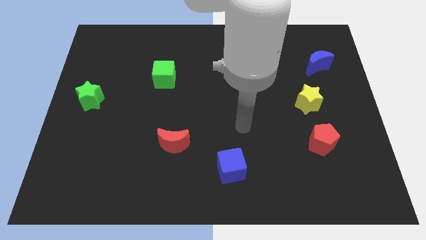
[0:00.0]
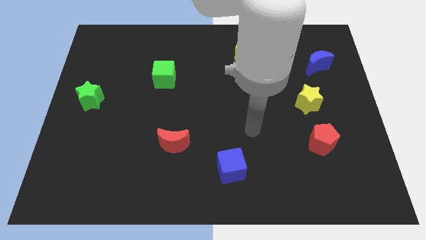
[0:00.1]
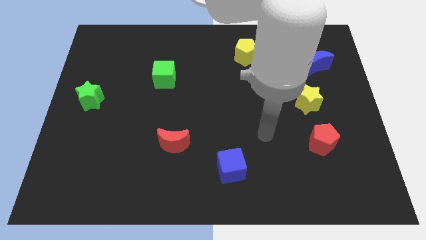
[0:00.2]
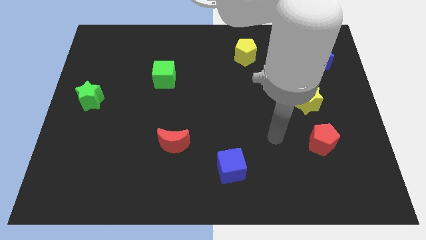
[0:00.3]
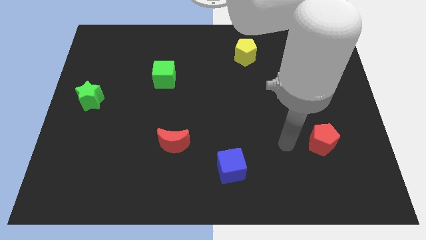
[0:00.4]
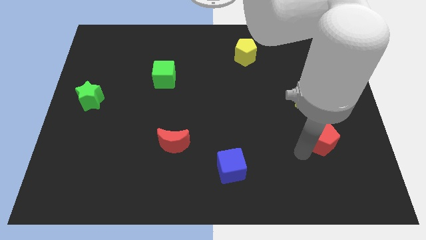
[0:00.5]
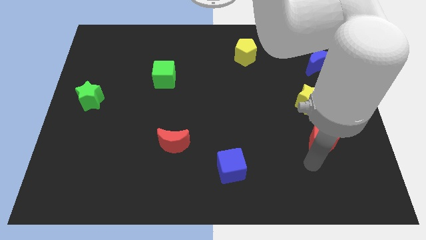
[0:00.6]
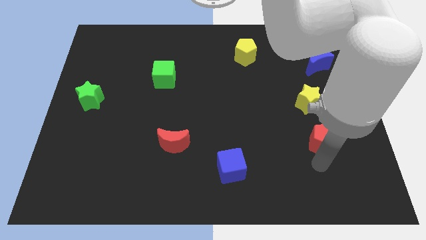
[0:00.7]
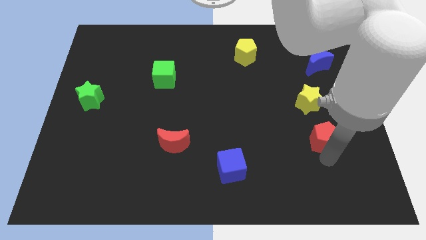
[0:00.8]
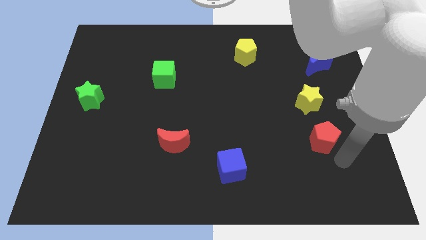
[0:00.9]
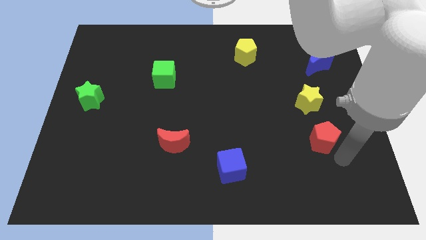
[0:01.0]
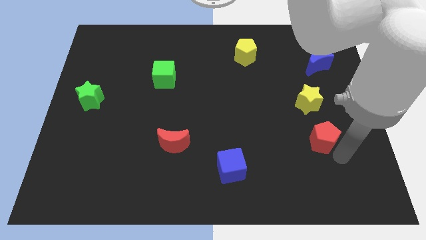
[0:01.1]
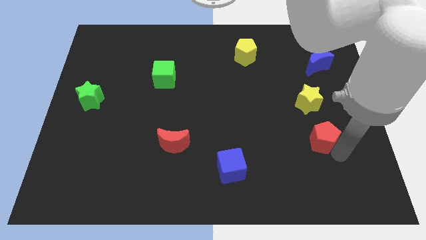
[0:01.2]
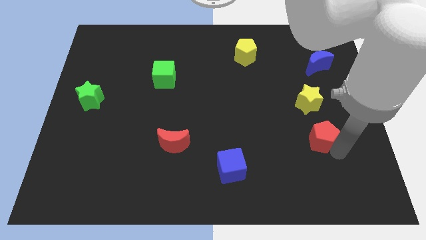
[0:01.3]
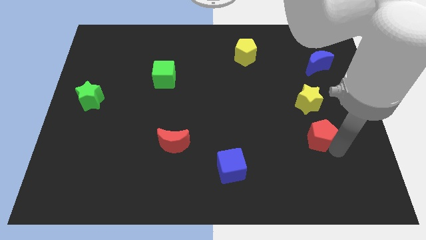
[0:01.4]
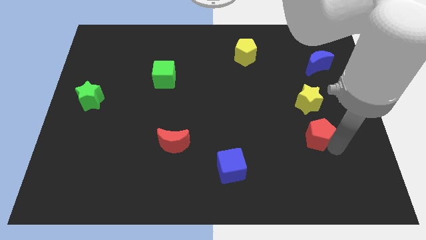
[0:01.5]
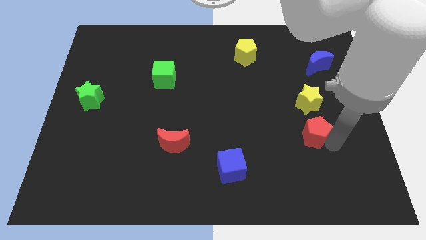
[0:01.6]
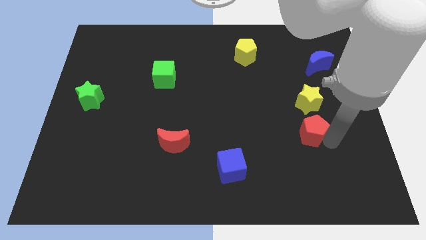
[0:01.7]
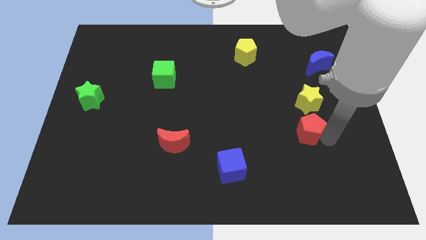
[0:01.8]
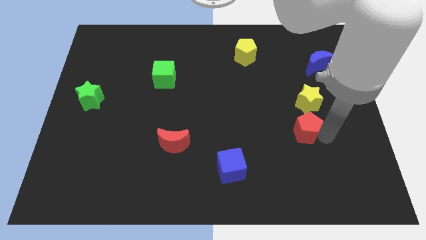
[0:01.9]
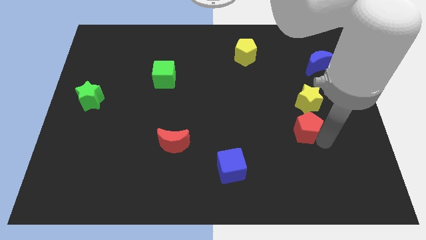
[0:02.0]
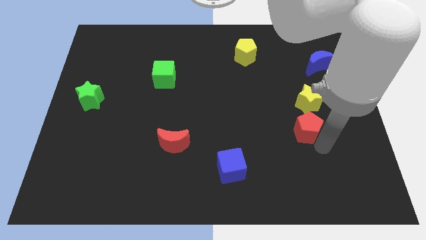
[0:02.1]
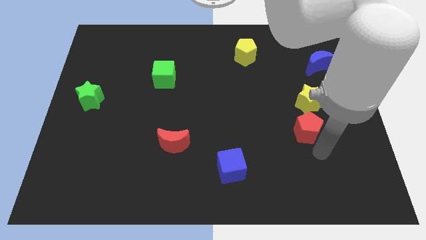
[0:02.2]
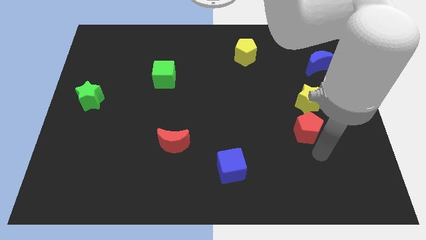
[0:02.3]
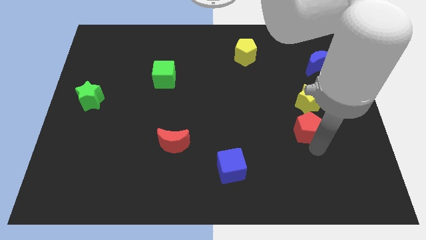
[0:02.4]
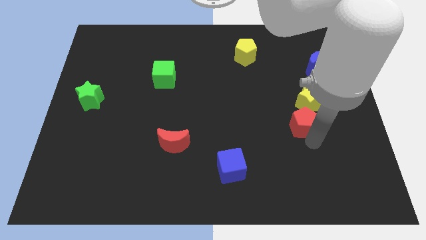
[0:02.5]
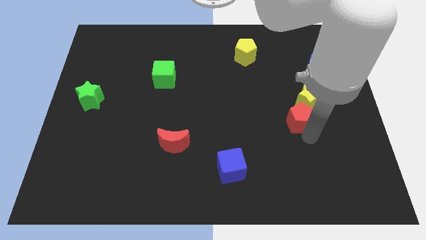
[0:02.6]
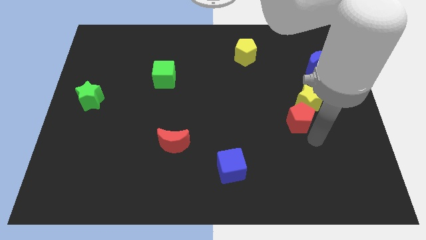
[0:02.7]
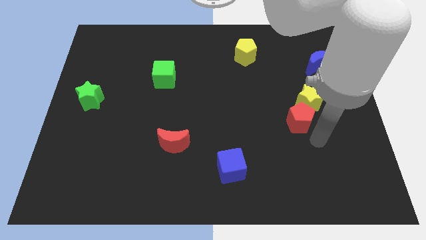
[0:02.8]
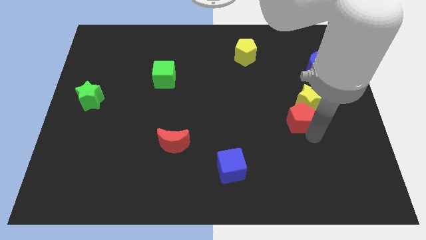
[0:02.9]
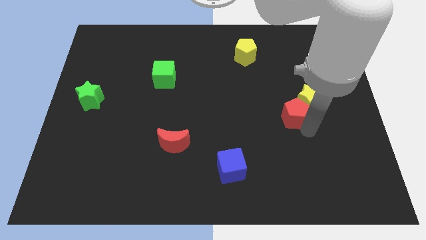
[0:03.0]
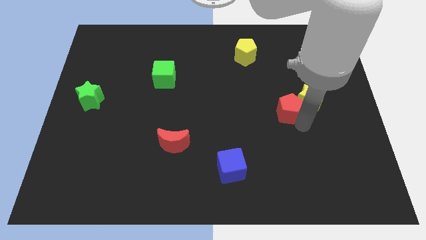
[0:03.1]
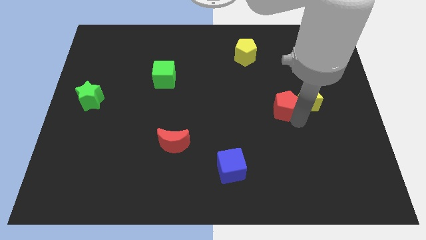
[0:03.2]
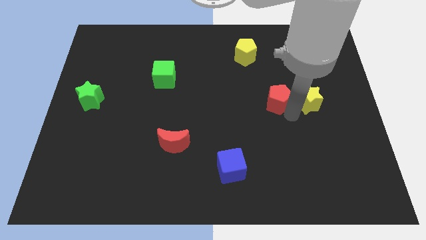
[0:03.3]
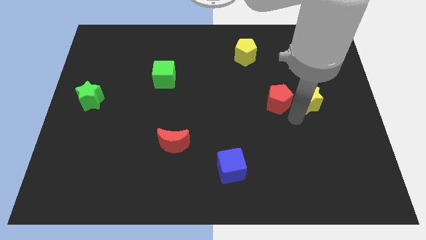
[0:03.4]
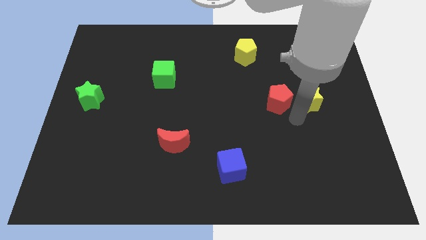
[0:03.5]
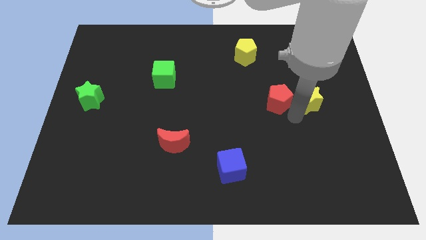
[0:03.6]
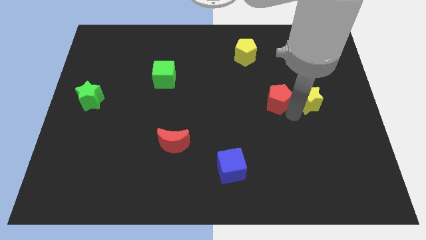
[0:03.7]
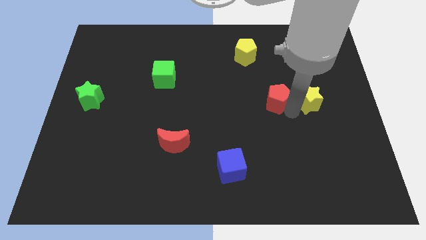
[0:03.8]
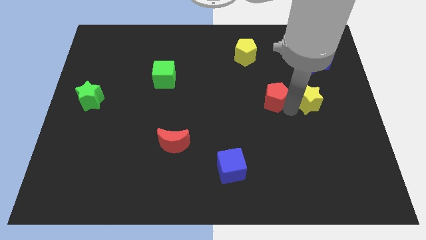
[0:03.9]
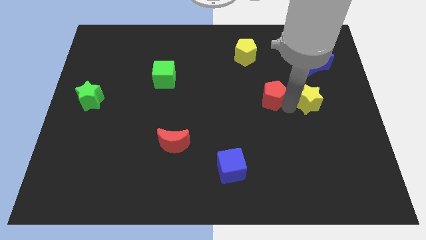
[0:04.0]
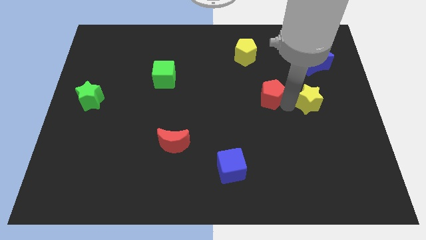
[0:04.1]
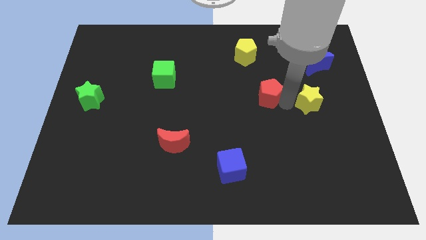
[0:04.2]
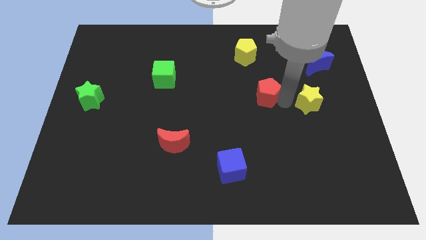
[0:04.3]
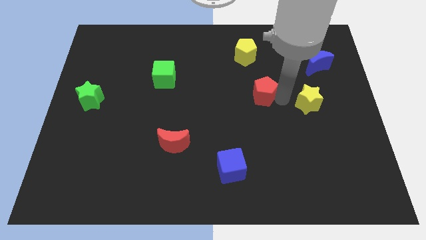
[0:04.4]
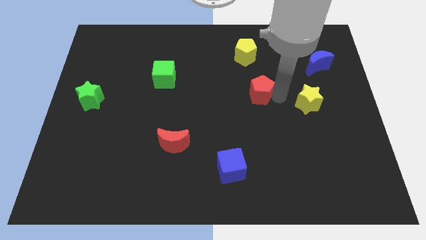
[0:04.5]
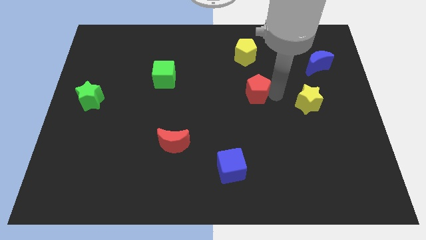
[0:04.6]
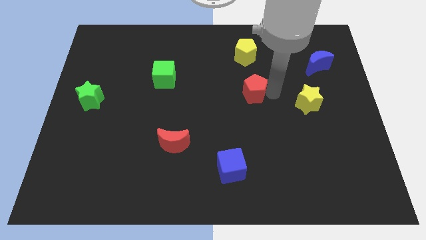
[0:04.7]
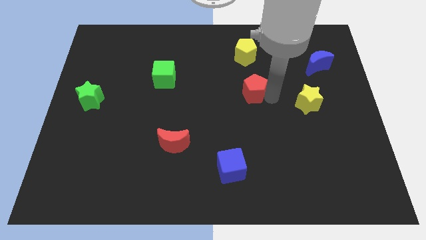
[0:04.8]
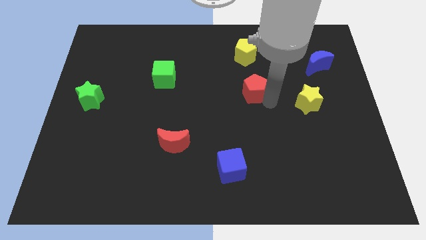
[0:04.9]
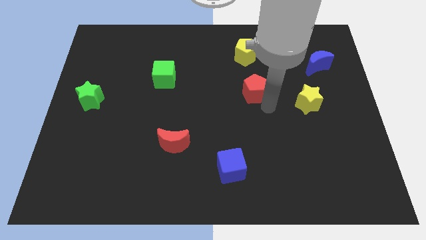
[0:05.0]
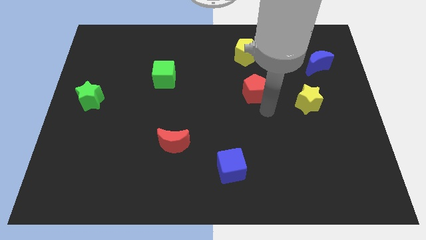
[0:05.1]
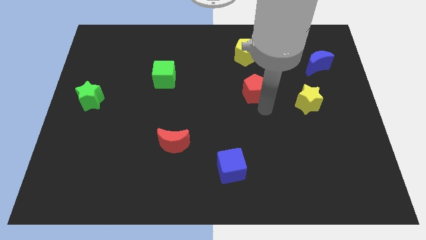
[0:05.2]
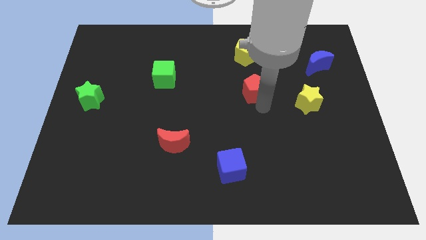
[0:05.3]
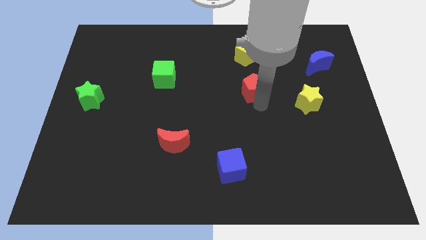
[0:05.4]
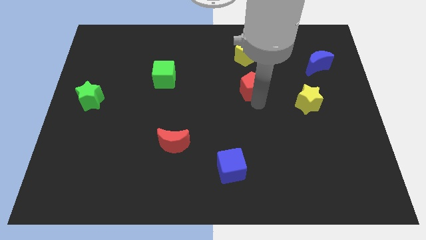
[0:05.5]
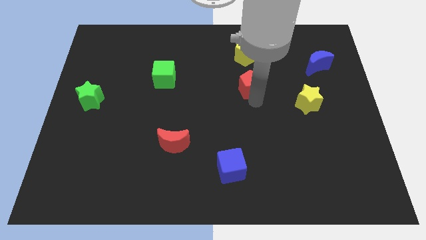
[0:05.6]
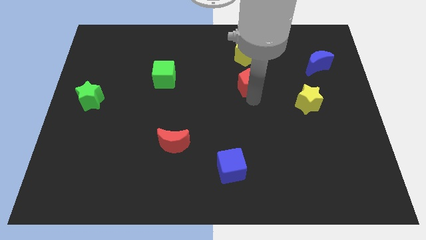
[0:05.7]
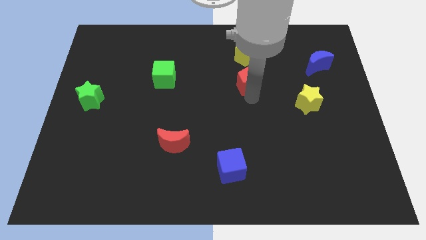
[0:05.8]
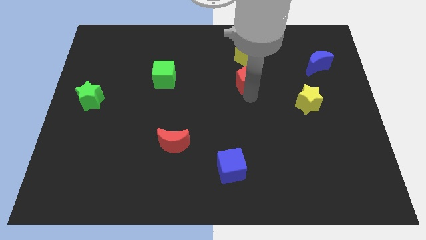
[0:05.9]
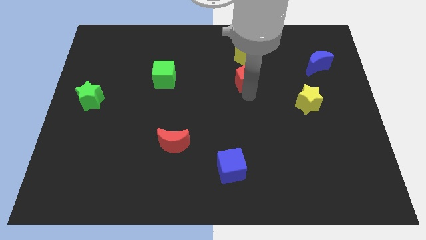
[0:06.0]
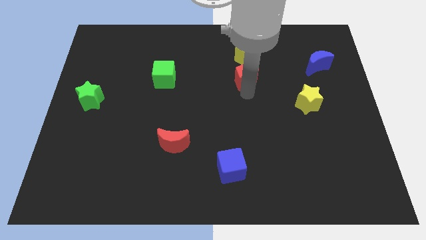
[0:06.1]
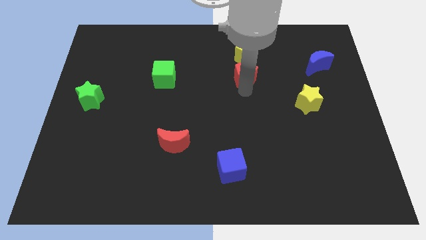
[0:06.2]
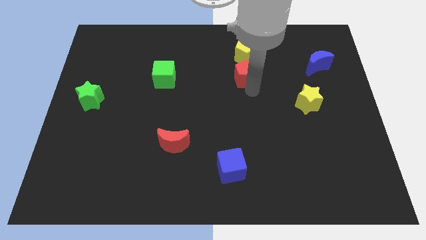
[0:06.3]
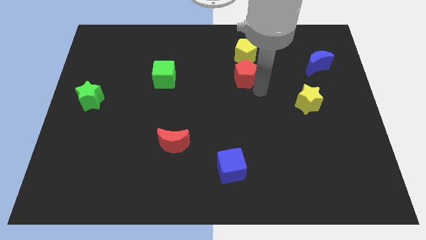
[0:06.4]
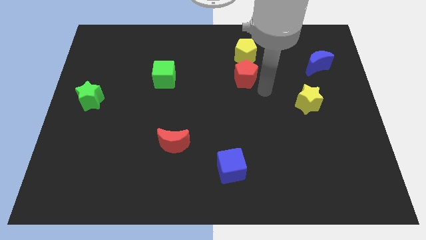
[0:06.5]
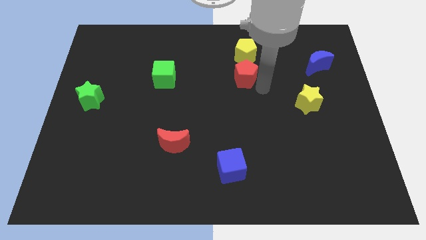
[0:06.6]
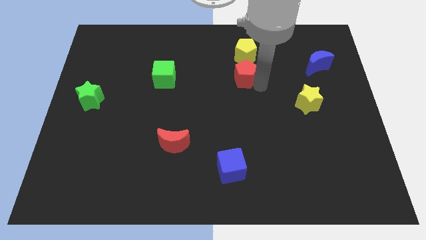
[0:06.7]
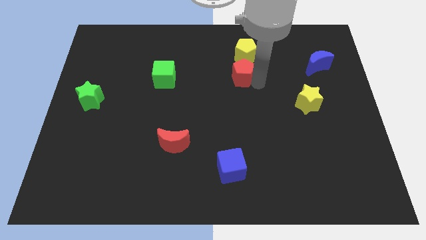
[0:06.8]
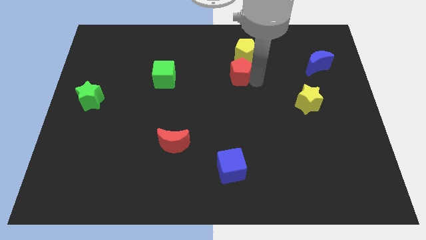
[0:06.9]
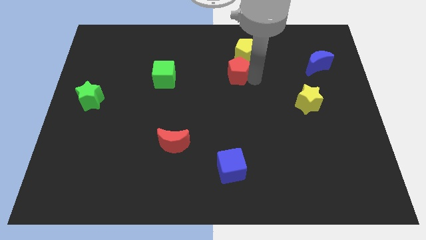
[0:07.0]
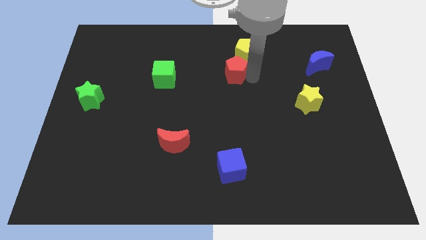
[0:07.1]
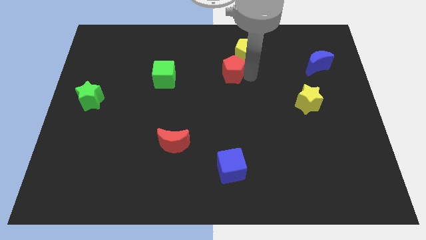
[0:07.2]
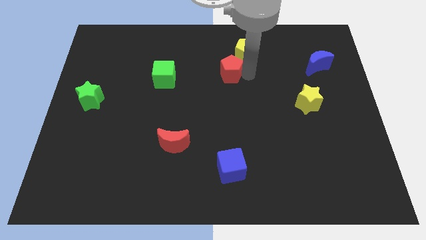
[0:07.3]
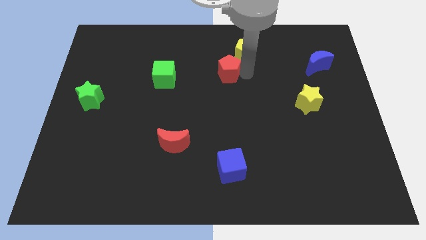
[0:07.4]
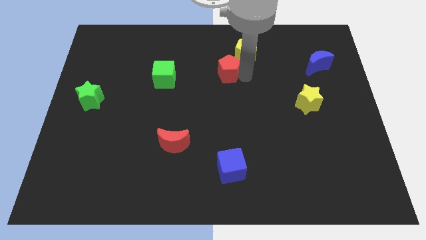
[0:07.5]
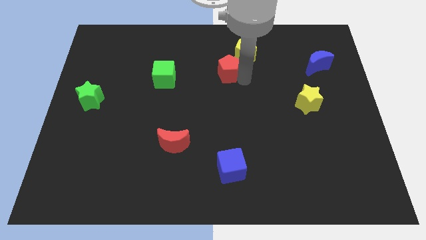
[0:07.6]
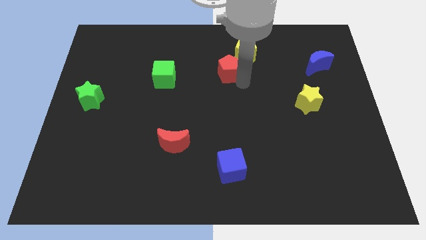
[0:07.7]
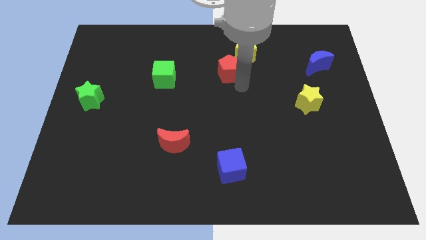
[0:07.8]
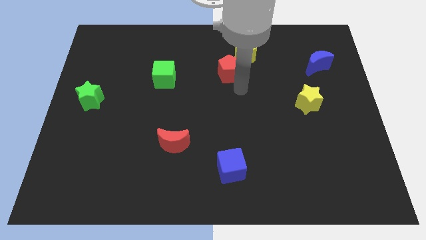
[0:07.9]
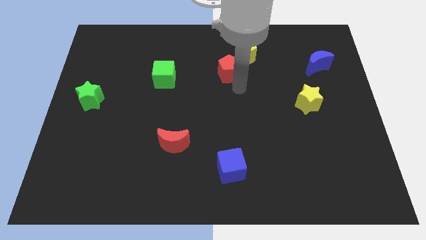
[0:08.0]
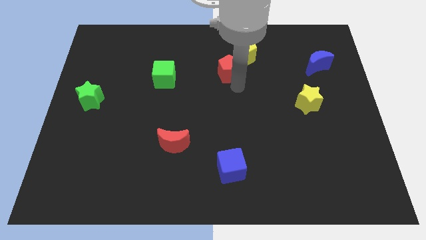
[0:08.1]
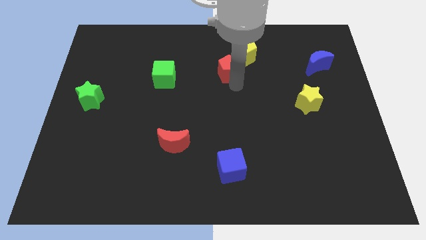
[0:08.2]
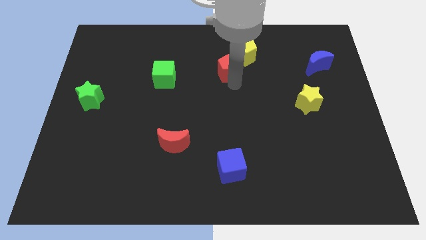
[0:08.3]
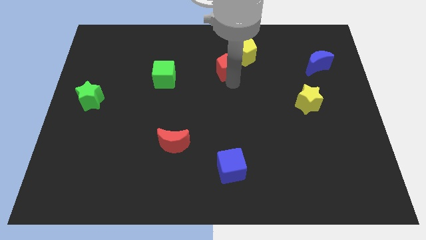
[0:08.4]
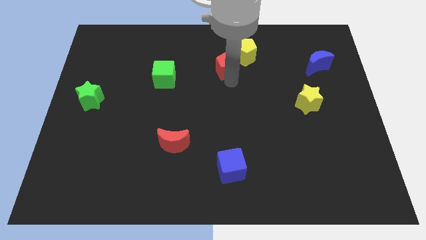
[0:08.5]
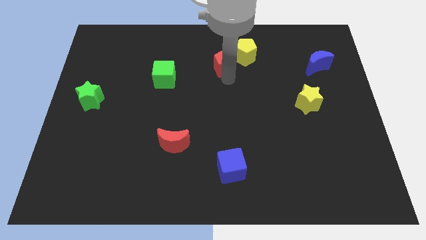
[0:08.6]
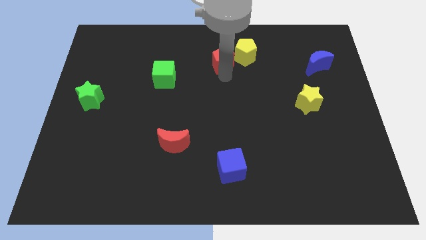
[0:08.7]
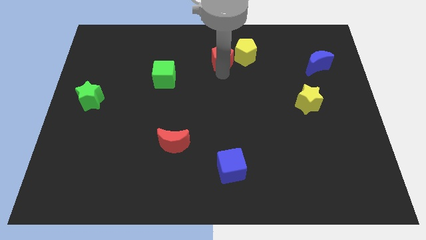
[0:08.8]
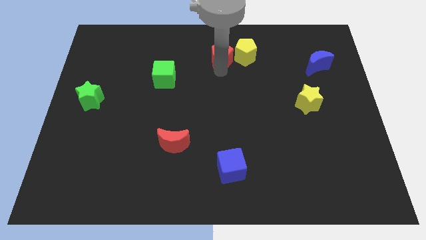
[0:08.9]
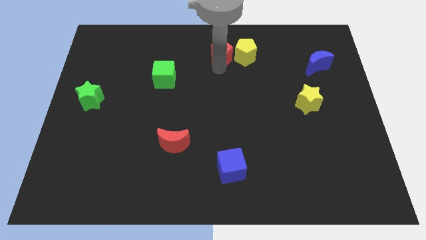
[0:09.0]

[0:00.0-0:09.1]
put the red pentagon to the top side
